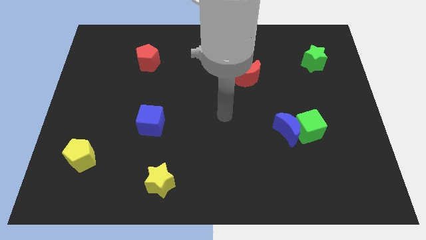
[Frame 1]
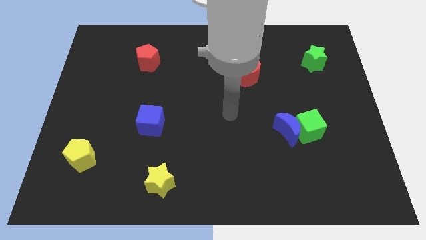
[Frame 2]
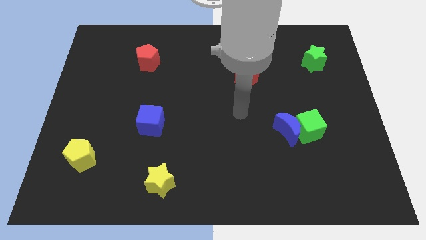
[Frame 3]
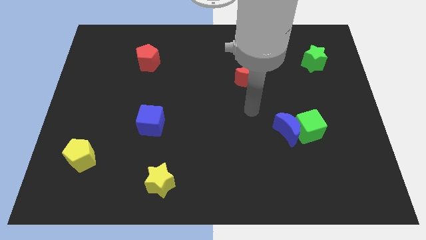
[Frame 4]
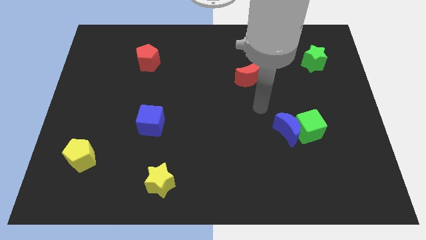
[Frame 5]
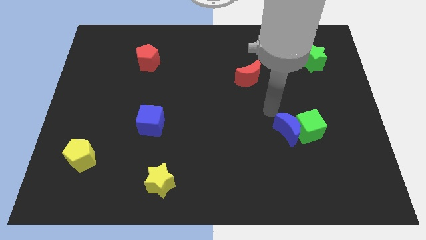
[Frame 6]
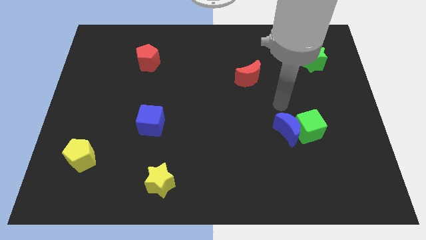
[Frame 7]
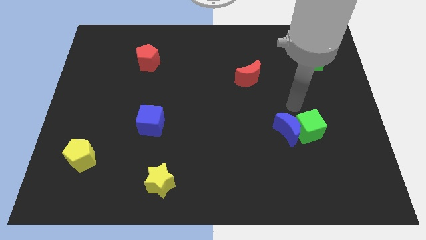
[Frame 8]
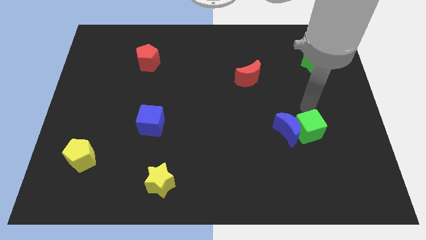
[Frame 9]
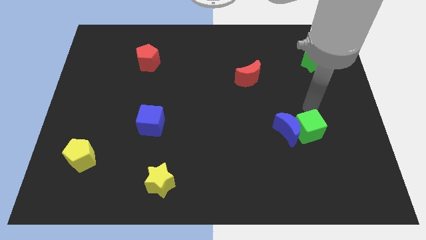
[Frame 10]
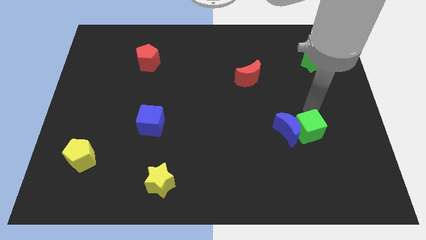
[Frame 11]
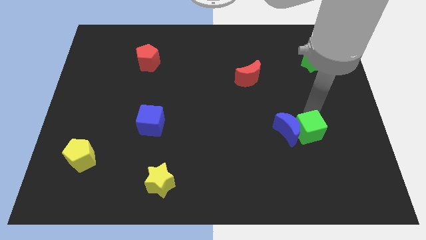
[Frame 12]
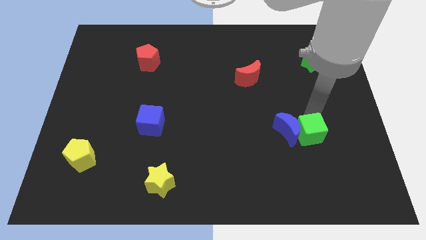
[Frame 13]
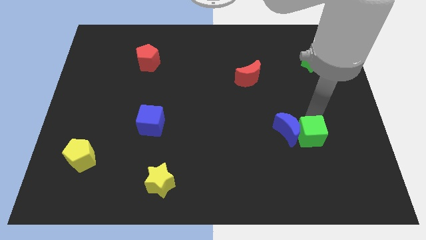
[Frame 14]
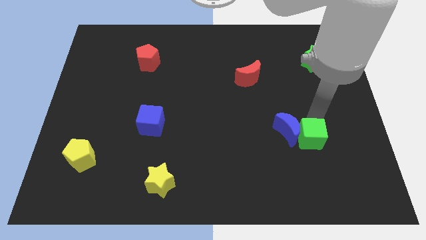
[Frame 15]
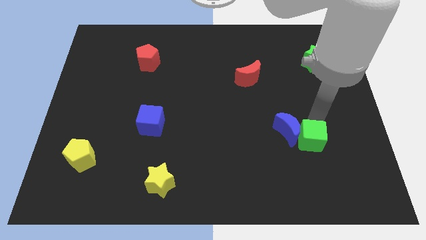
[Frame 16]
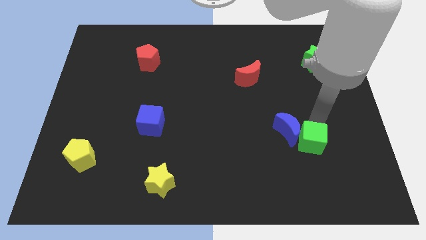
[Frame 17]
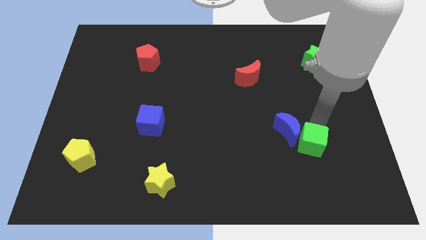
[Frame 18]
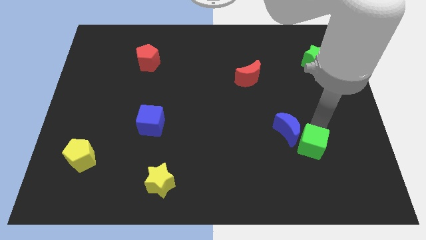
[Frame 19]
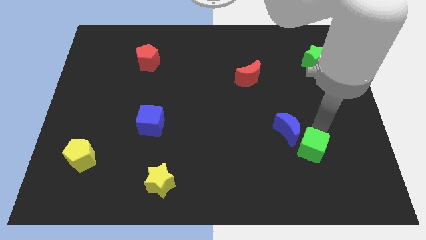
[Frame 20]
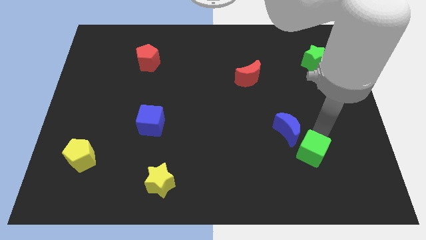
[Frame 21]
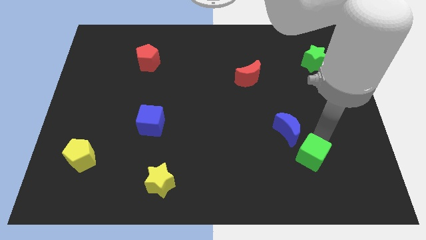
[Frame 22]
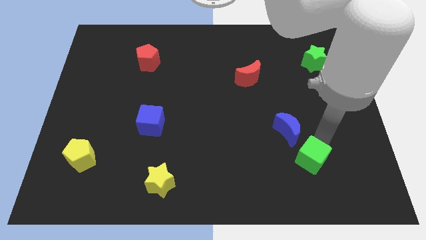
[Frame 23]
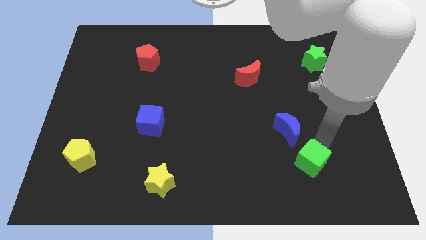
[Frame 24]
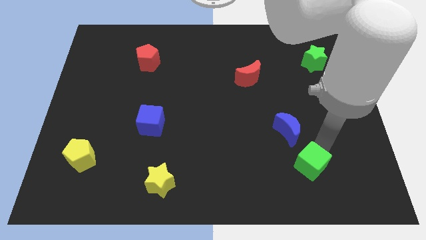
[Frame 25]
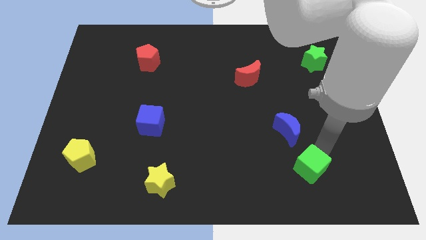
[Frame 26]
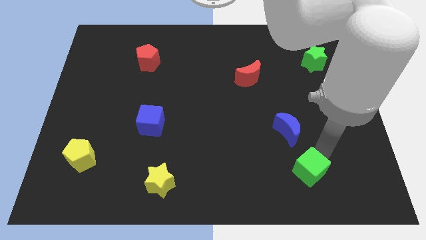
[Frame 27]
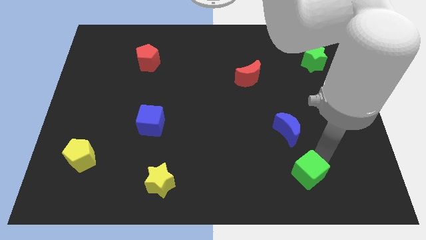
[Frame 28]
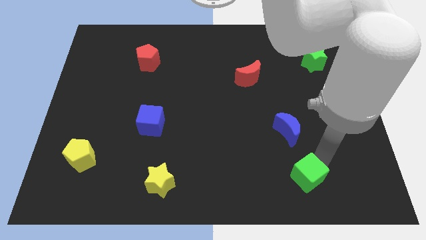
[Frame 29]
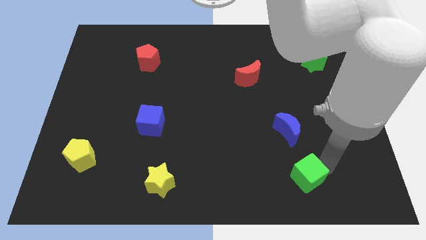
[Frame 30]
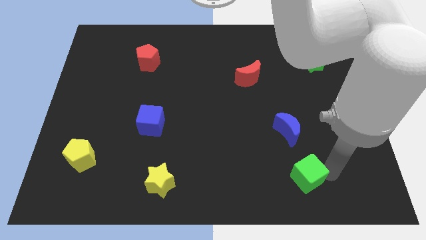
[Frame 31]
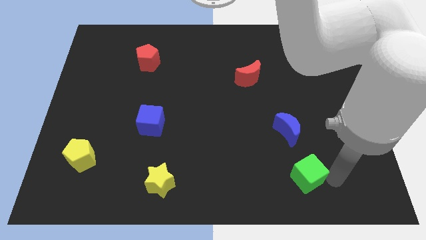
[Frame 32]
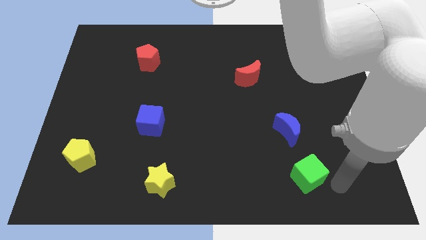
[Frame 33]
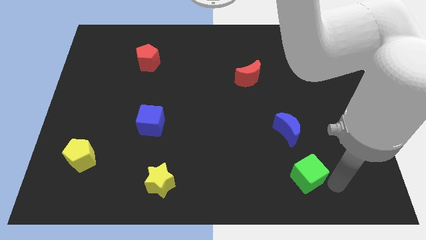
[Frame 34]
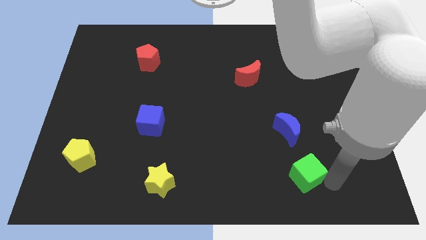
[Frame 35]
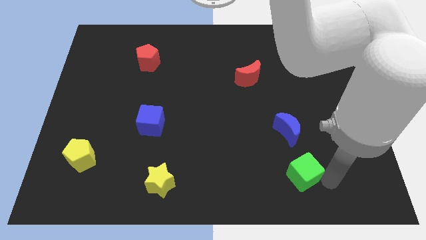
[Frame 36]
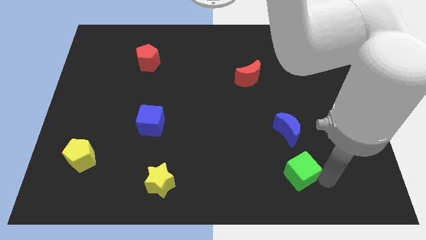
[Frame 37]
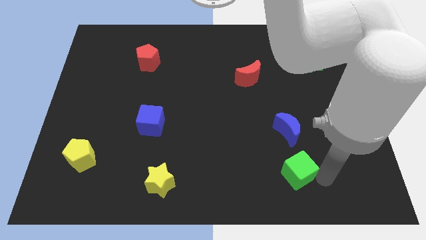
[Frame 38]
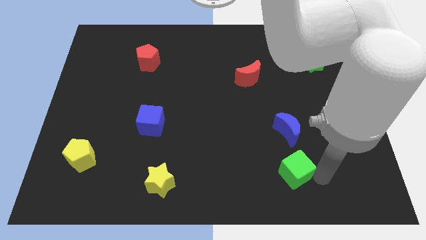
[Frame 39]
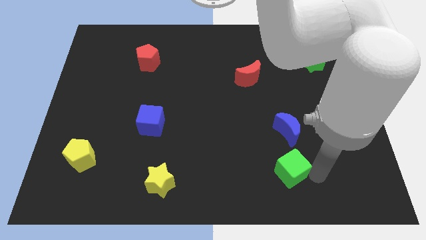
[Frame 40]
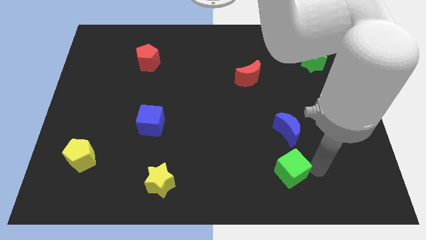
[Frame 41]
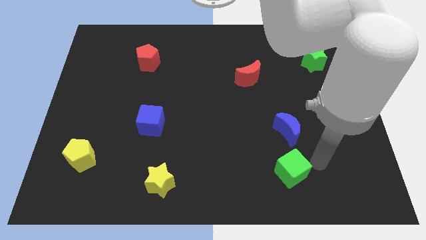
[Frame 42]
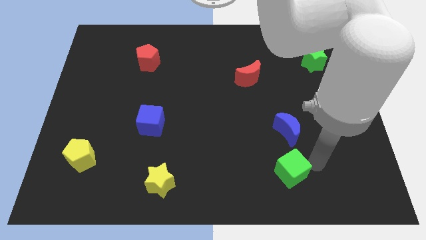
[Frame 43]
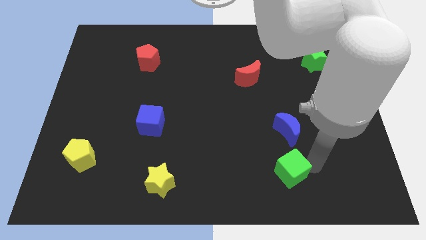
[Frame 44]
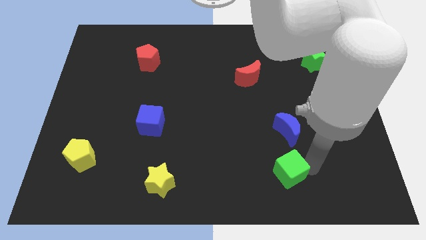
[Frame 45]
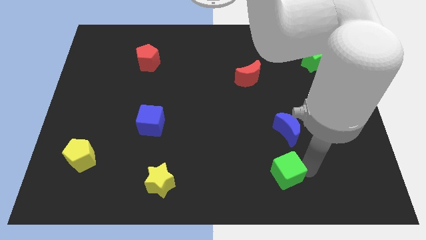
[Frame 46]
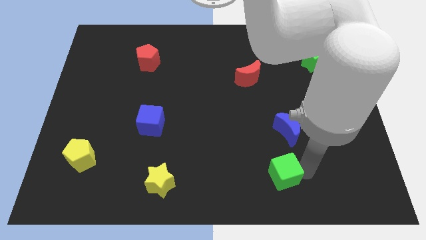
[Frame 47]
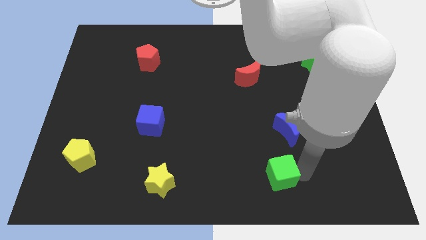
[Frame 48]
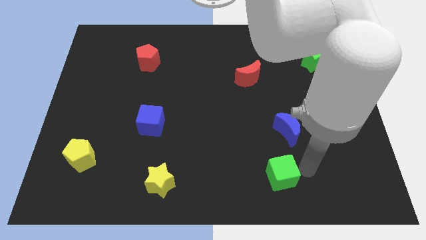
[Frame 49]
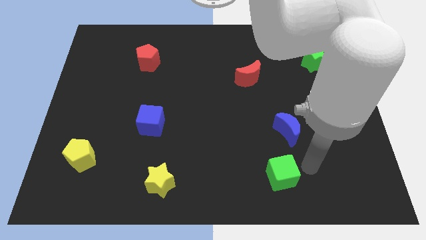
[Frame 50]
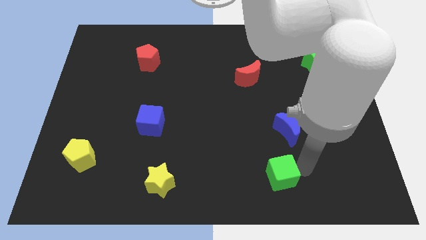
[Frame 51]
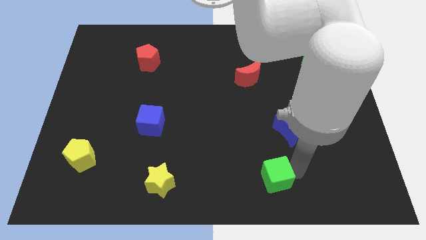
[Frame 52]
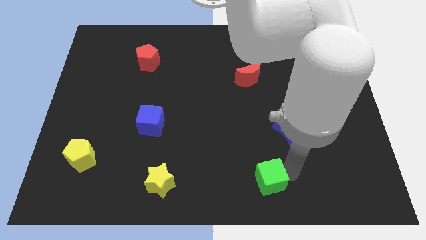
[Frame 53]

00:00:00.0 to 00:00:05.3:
slide the green cube to the bottom side

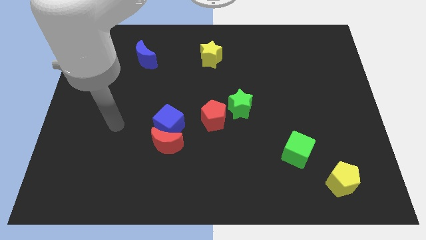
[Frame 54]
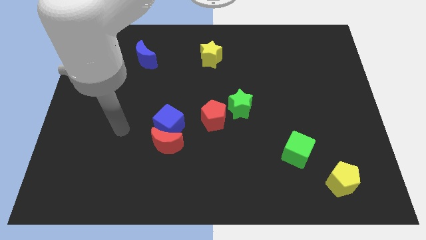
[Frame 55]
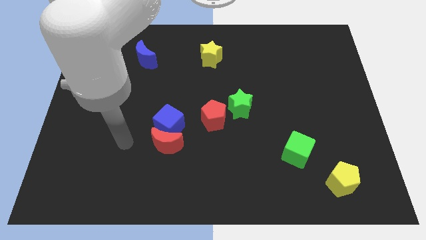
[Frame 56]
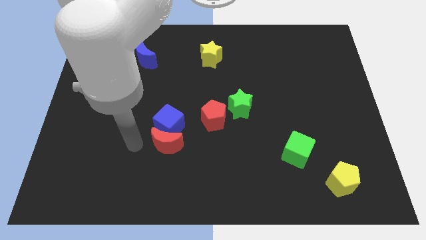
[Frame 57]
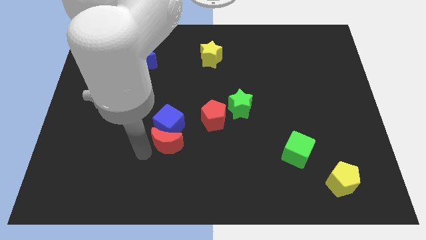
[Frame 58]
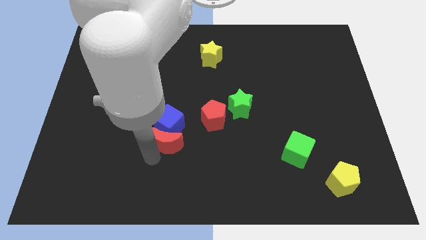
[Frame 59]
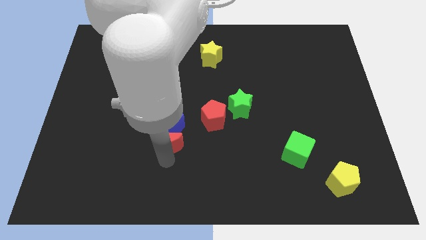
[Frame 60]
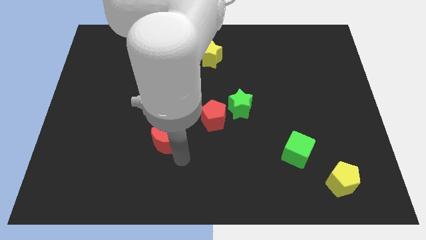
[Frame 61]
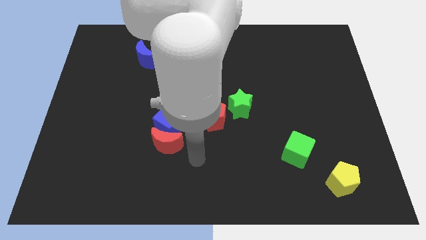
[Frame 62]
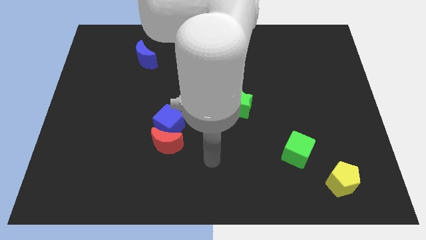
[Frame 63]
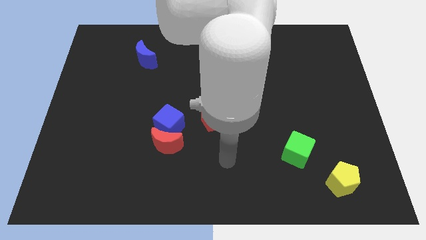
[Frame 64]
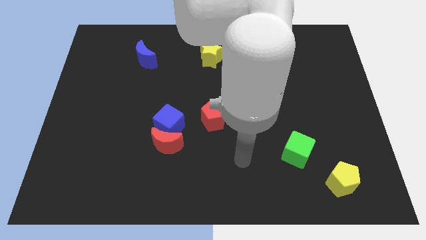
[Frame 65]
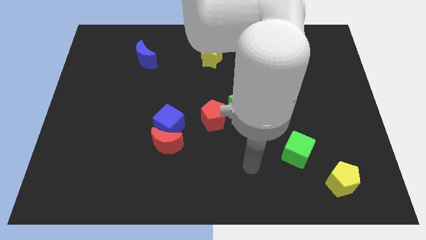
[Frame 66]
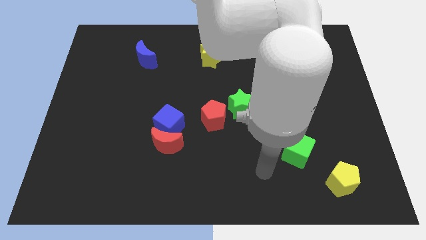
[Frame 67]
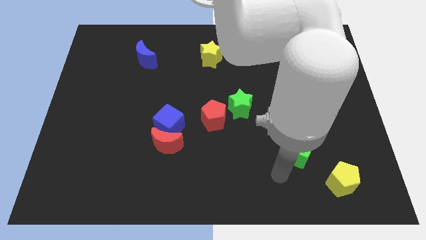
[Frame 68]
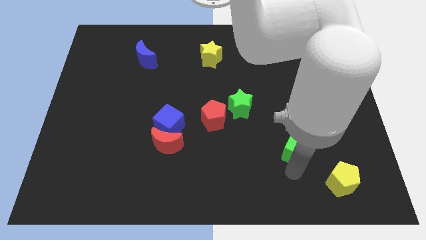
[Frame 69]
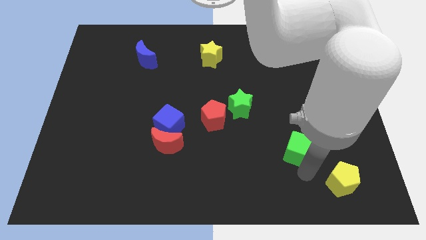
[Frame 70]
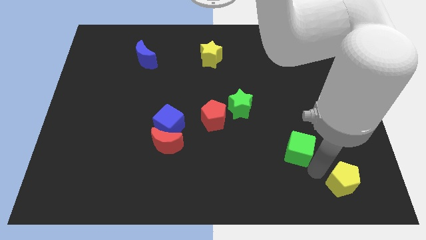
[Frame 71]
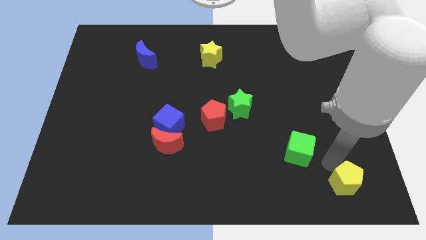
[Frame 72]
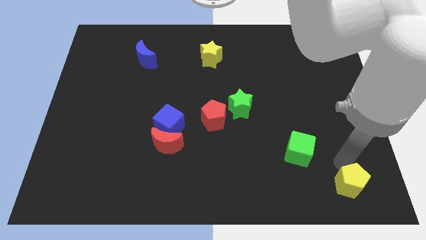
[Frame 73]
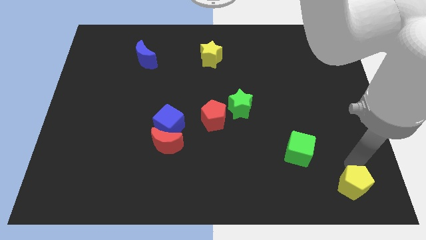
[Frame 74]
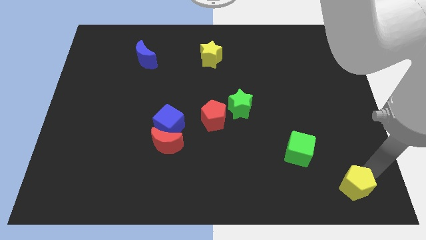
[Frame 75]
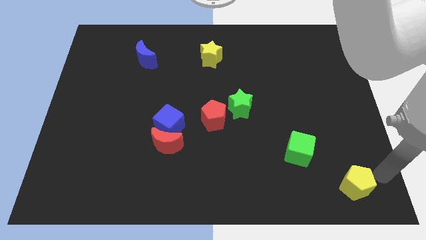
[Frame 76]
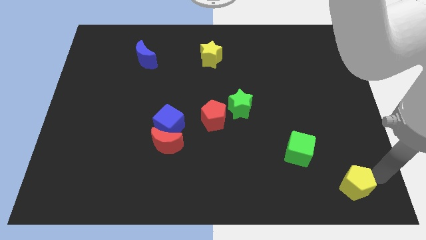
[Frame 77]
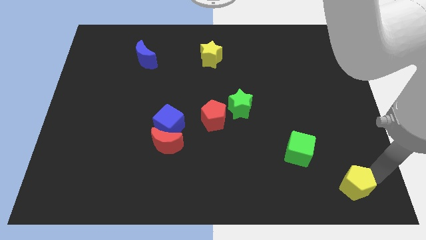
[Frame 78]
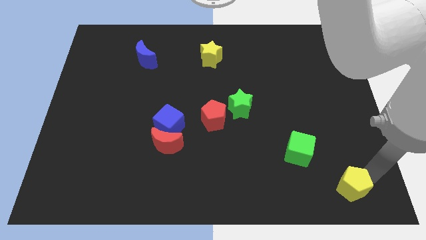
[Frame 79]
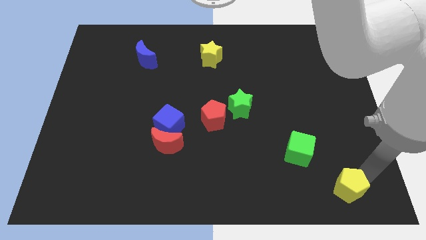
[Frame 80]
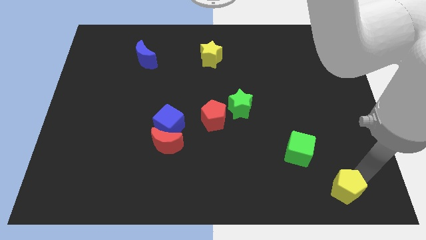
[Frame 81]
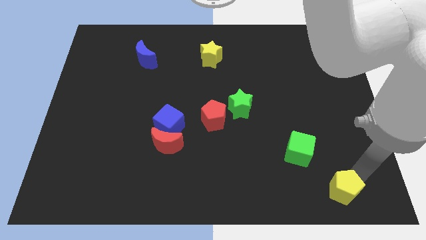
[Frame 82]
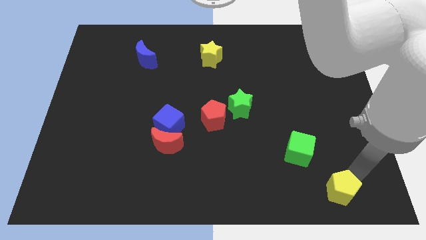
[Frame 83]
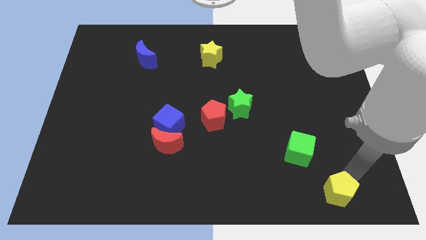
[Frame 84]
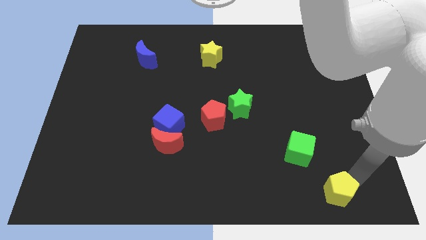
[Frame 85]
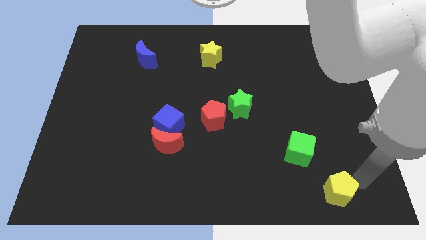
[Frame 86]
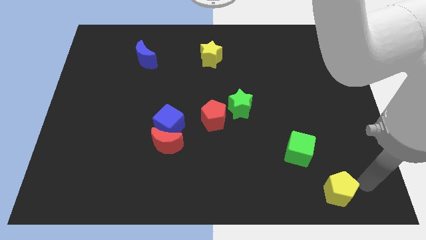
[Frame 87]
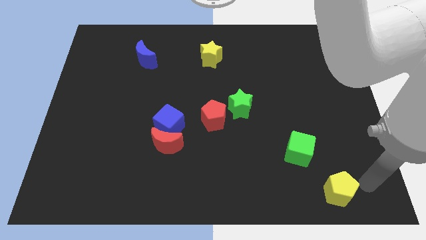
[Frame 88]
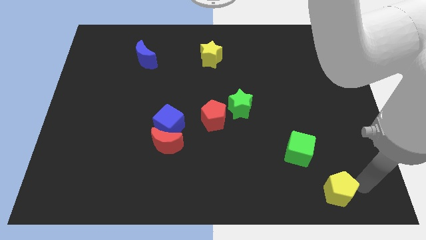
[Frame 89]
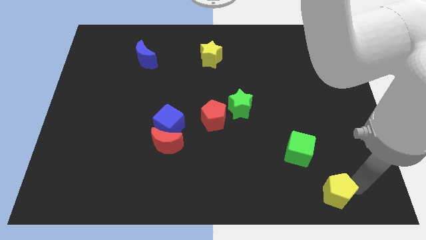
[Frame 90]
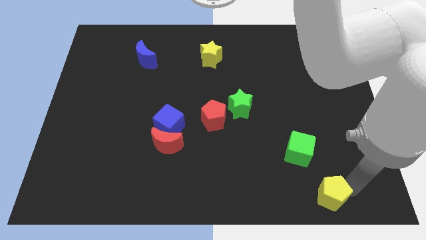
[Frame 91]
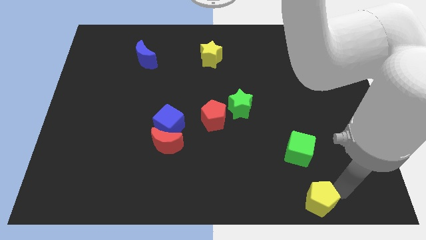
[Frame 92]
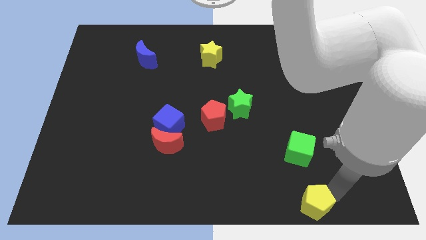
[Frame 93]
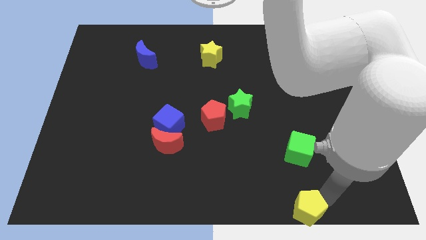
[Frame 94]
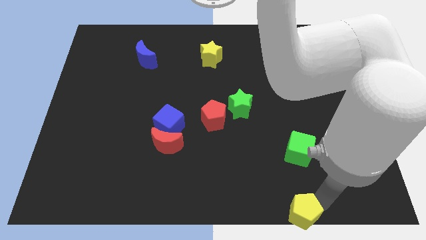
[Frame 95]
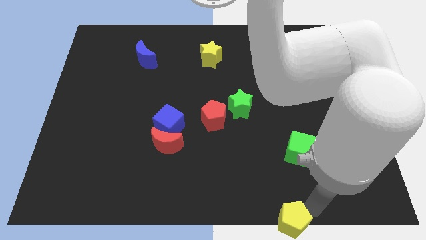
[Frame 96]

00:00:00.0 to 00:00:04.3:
slide the yellow pentagon to the bottom
